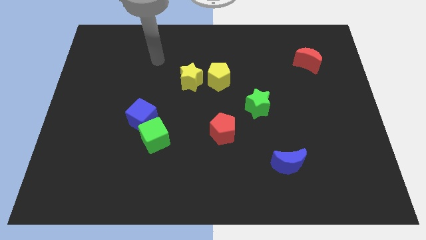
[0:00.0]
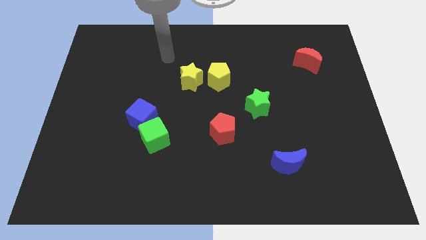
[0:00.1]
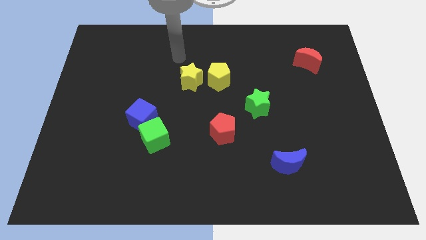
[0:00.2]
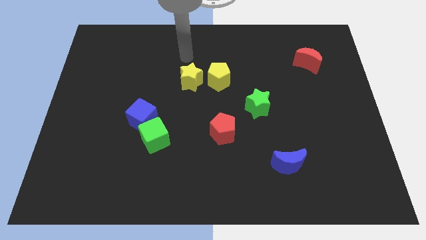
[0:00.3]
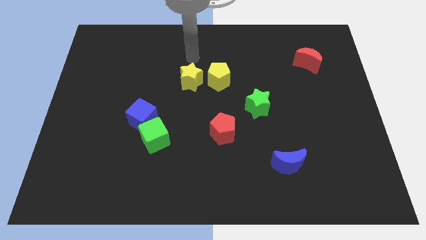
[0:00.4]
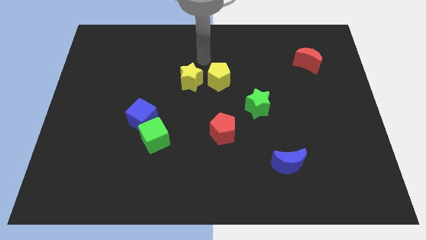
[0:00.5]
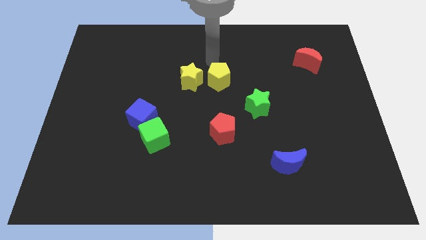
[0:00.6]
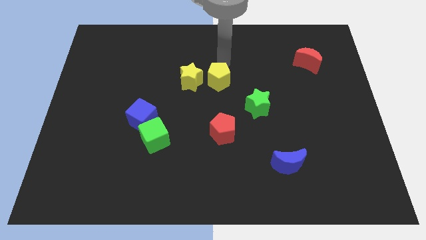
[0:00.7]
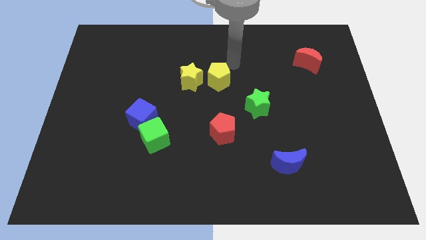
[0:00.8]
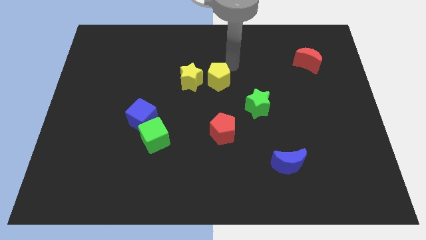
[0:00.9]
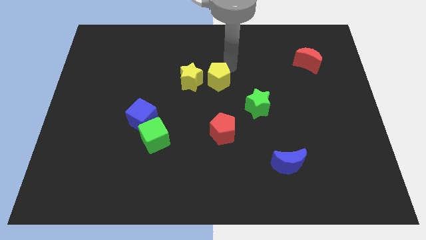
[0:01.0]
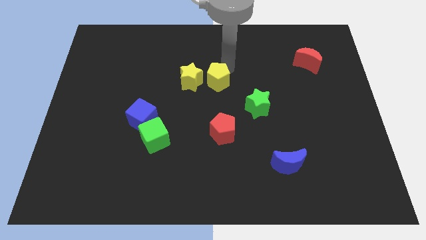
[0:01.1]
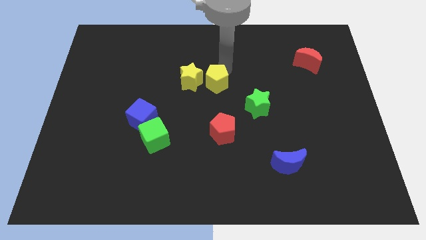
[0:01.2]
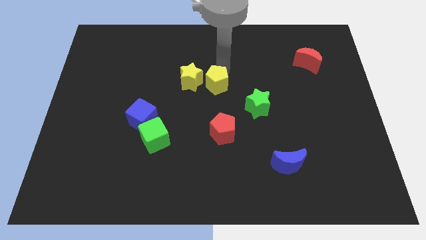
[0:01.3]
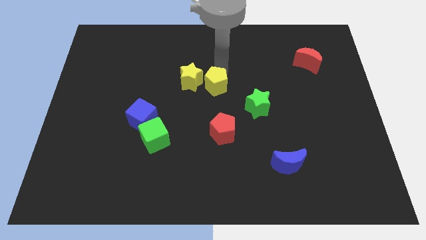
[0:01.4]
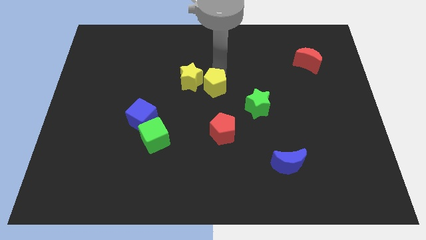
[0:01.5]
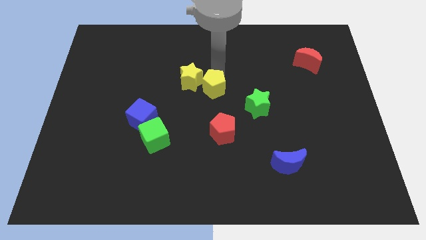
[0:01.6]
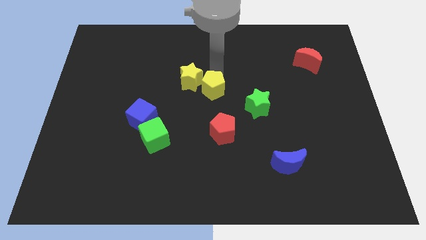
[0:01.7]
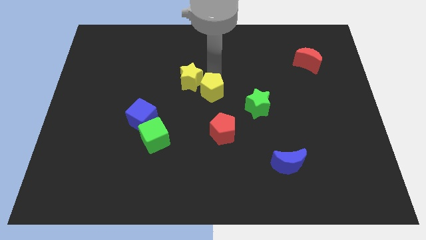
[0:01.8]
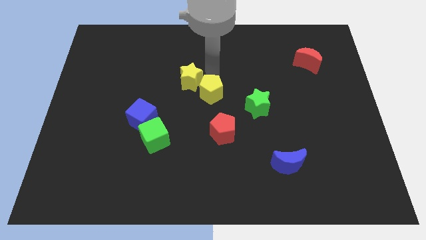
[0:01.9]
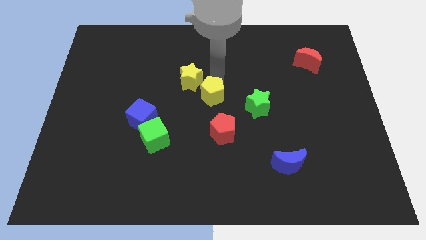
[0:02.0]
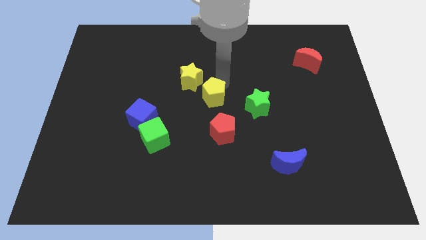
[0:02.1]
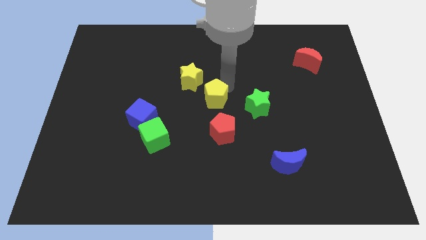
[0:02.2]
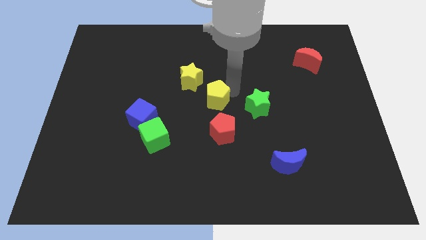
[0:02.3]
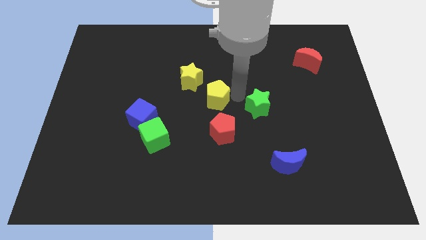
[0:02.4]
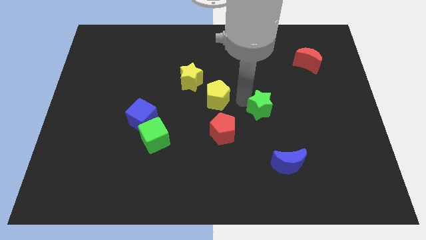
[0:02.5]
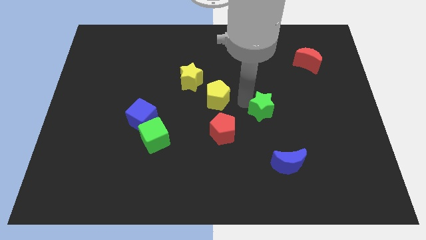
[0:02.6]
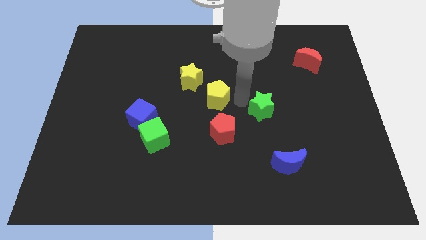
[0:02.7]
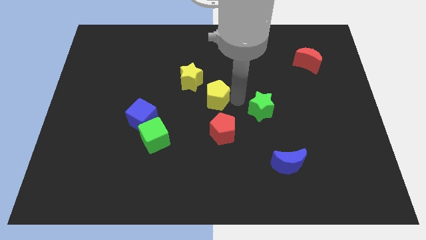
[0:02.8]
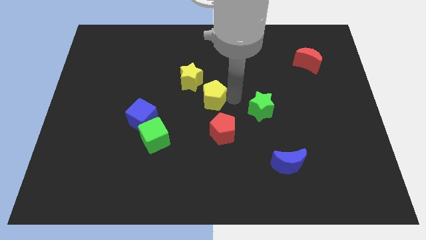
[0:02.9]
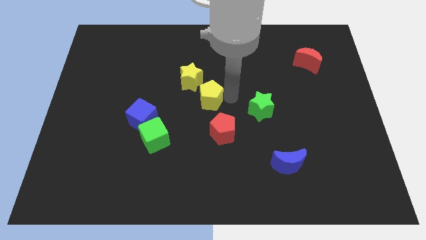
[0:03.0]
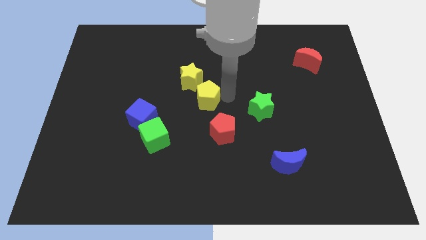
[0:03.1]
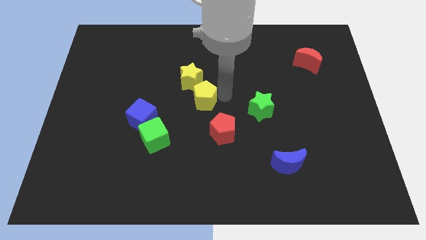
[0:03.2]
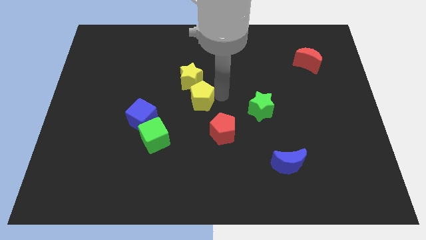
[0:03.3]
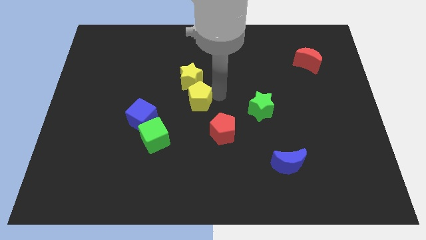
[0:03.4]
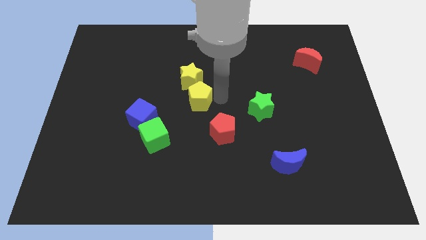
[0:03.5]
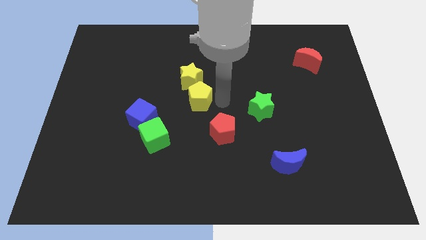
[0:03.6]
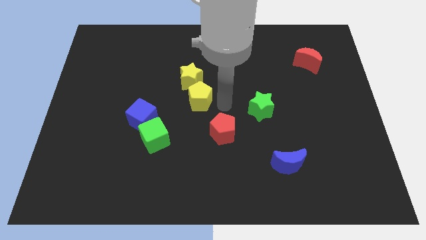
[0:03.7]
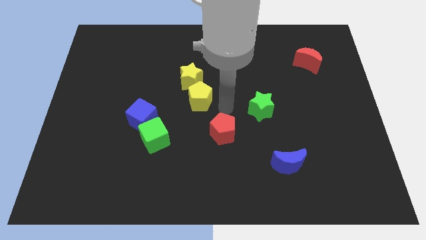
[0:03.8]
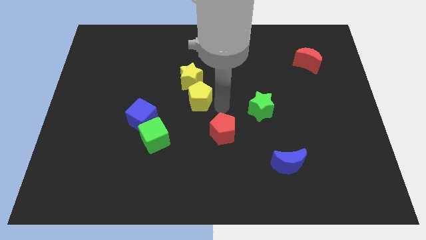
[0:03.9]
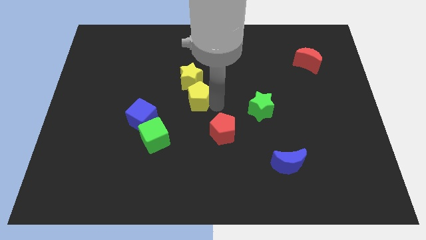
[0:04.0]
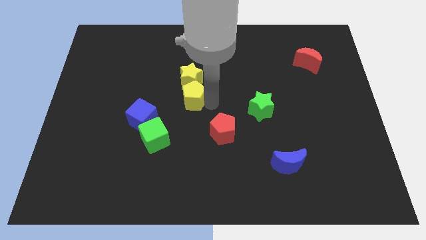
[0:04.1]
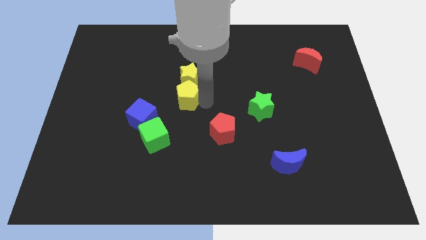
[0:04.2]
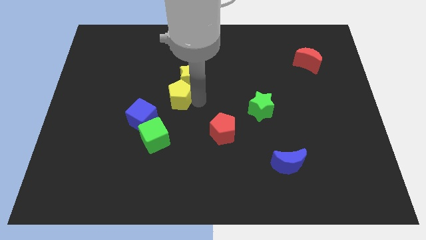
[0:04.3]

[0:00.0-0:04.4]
push the yellow pentagon to the left a bit

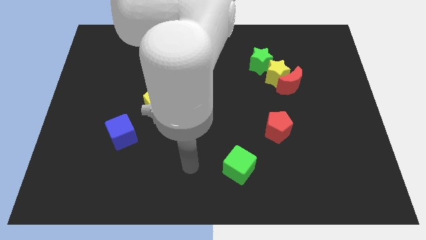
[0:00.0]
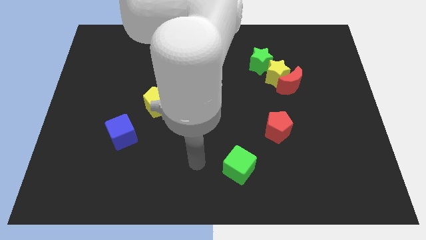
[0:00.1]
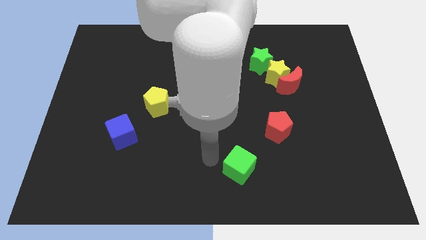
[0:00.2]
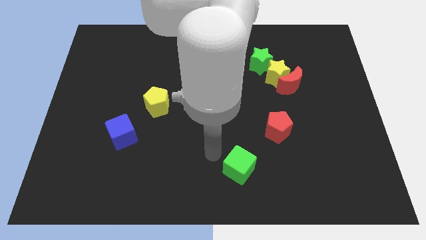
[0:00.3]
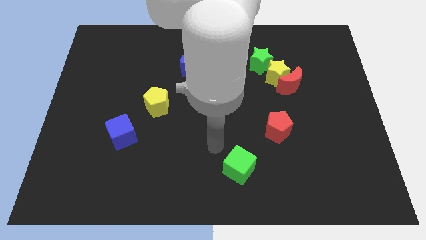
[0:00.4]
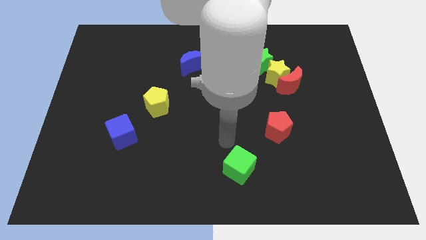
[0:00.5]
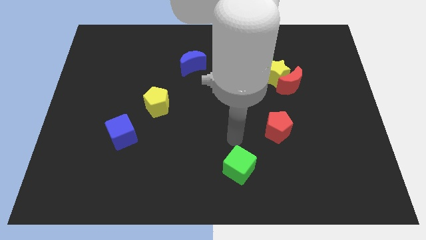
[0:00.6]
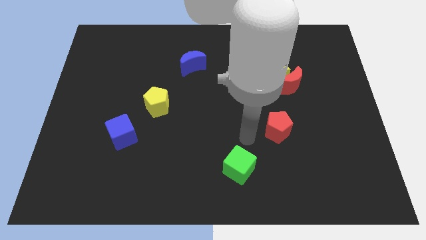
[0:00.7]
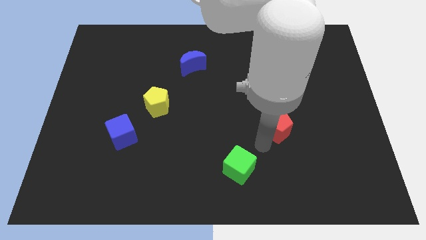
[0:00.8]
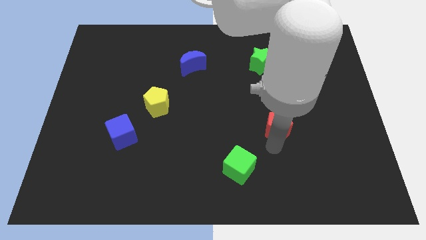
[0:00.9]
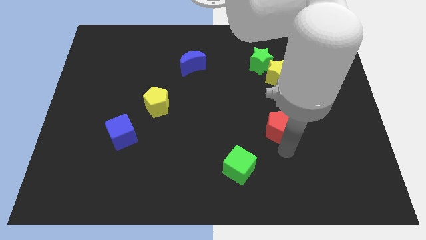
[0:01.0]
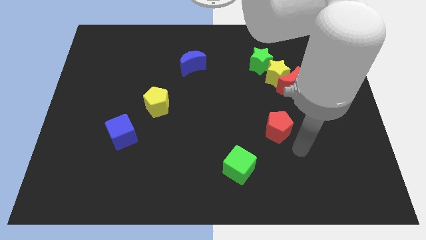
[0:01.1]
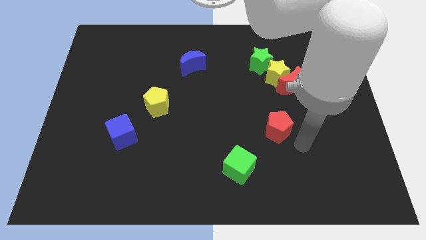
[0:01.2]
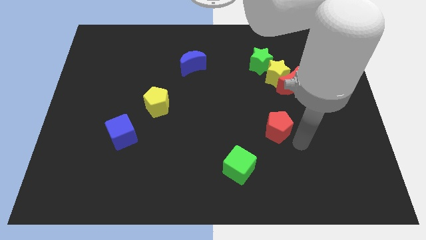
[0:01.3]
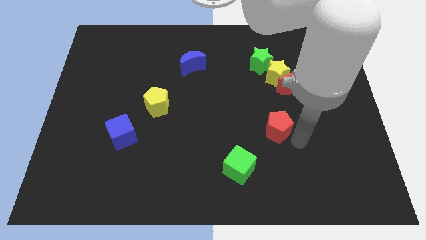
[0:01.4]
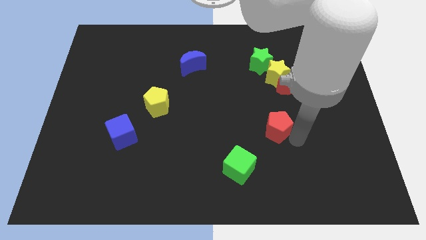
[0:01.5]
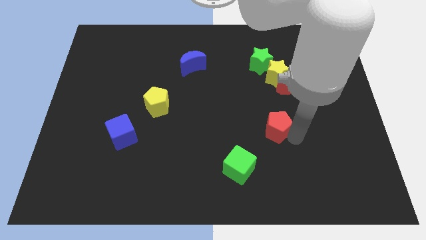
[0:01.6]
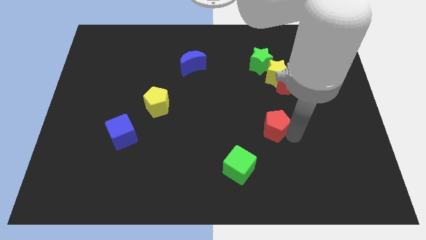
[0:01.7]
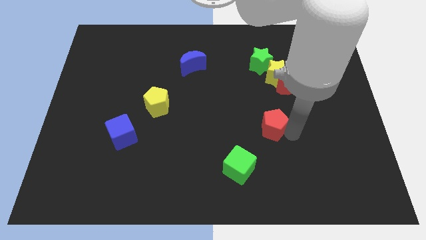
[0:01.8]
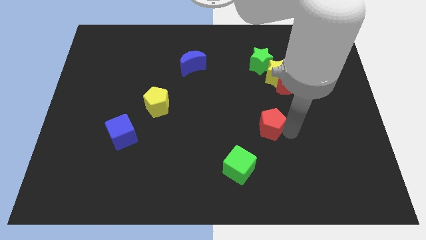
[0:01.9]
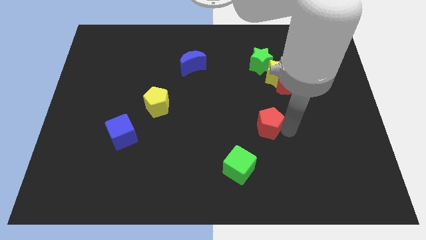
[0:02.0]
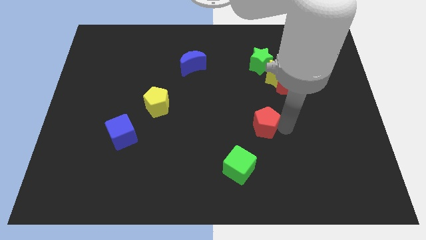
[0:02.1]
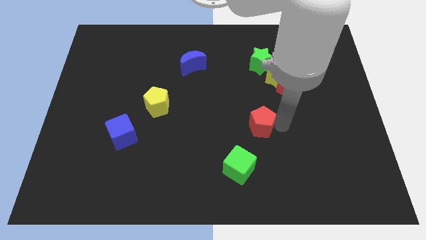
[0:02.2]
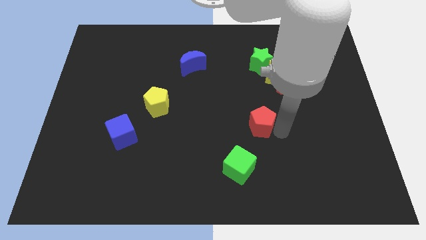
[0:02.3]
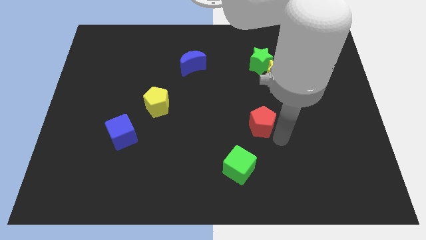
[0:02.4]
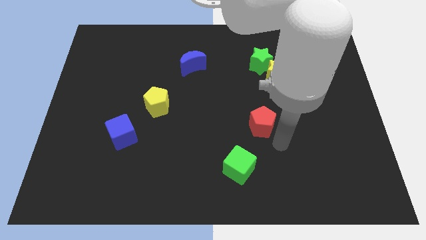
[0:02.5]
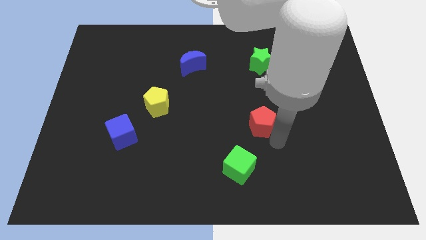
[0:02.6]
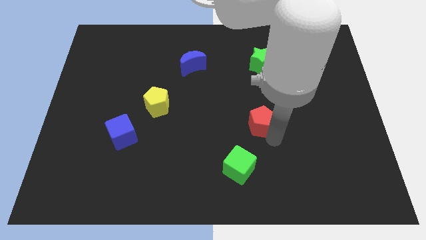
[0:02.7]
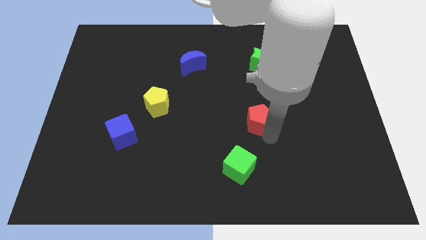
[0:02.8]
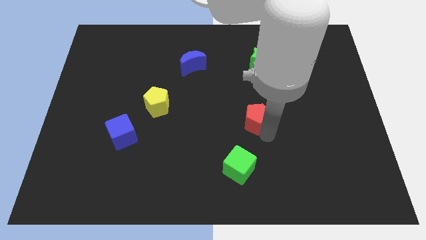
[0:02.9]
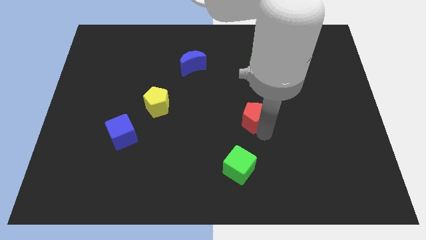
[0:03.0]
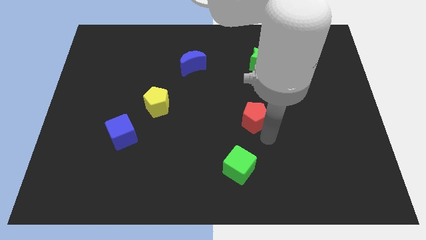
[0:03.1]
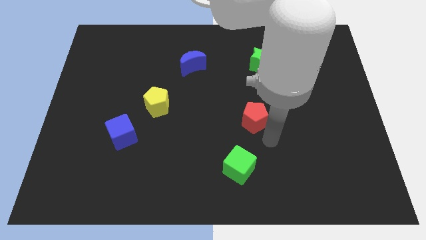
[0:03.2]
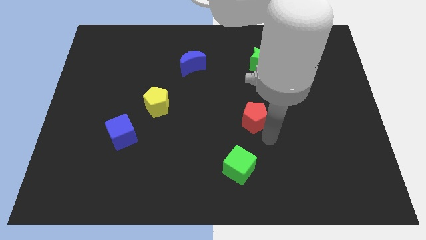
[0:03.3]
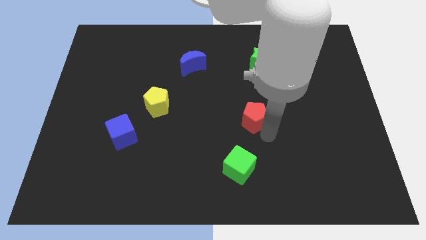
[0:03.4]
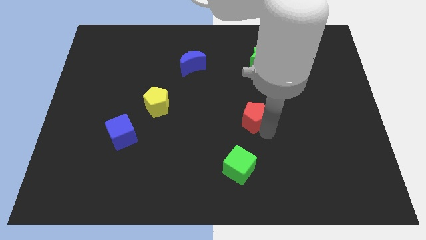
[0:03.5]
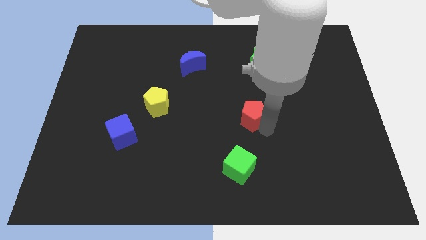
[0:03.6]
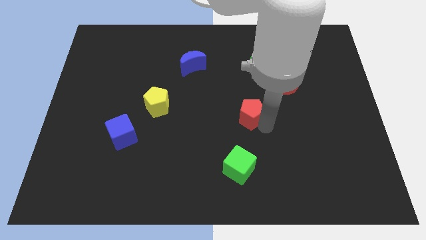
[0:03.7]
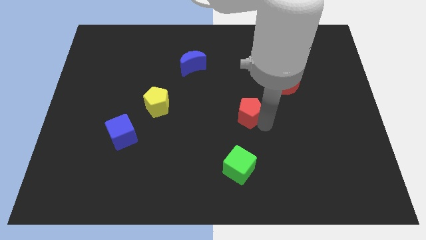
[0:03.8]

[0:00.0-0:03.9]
slightly move the red pentagon upwards and then to the left
